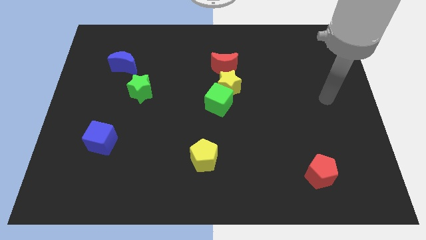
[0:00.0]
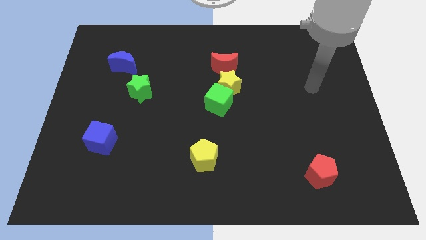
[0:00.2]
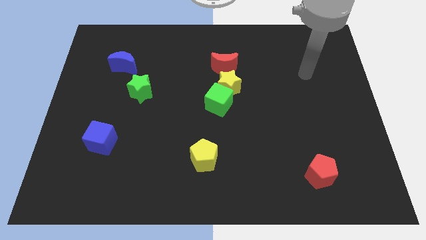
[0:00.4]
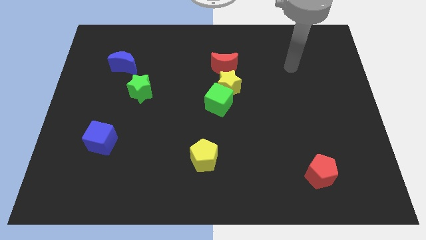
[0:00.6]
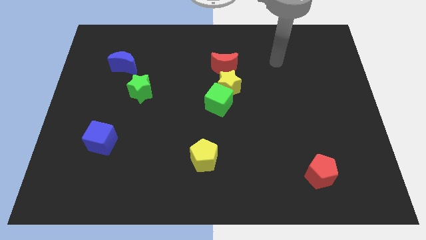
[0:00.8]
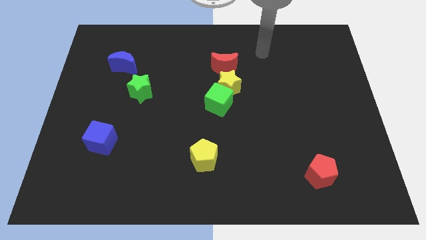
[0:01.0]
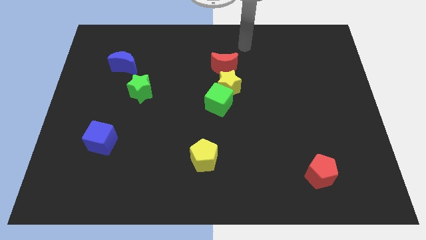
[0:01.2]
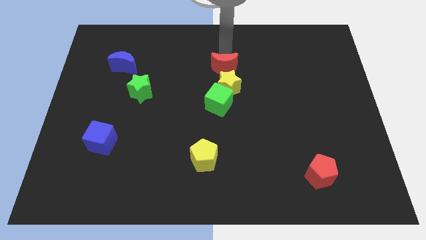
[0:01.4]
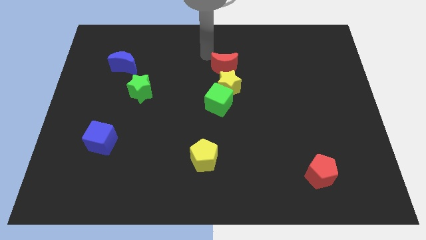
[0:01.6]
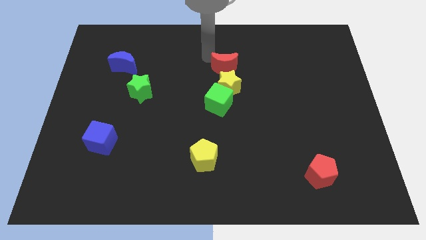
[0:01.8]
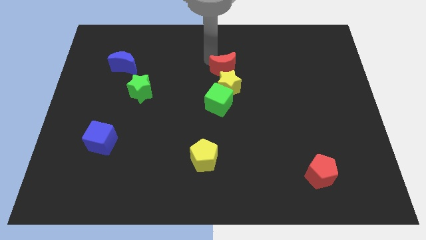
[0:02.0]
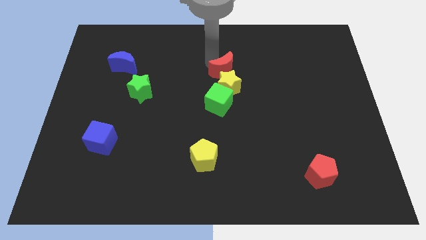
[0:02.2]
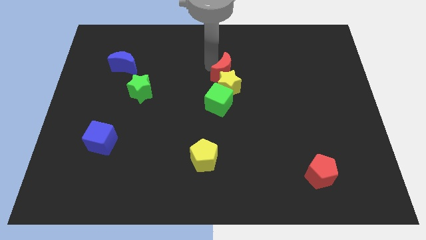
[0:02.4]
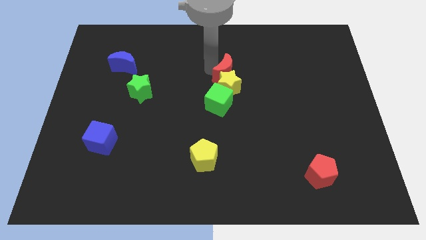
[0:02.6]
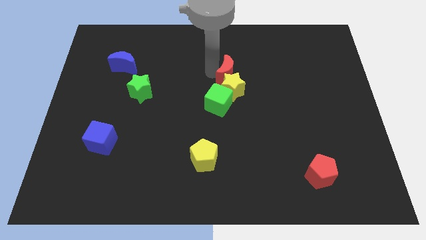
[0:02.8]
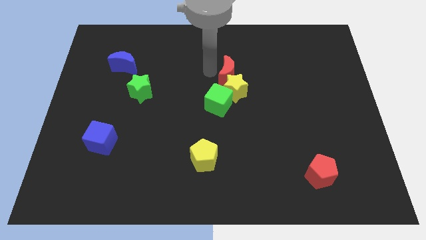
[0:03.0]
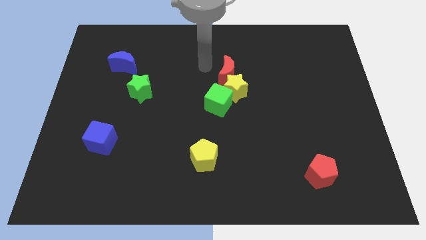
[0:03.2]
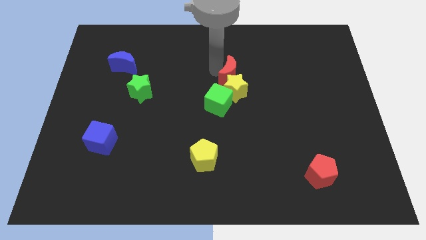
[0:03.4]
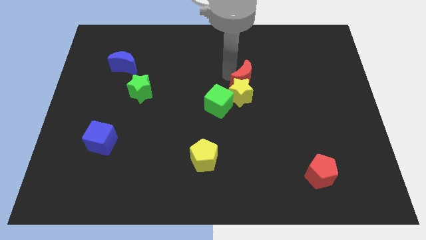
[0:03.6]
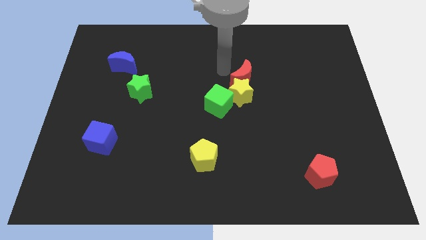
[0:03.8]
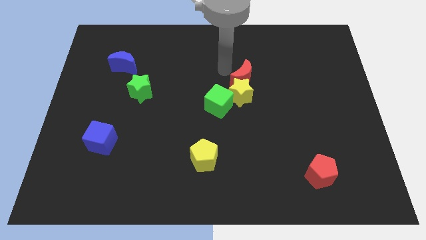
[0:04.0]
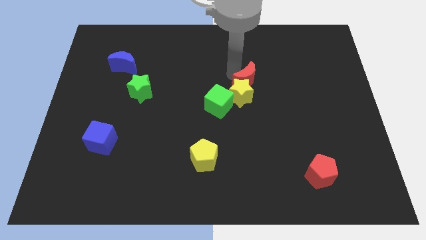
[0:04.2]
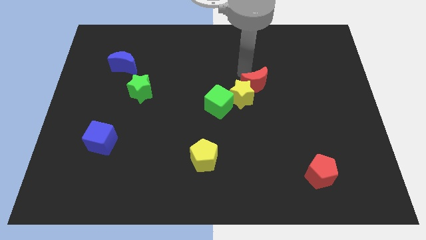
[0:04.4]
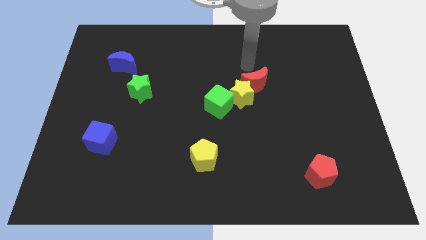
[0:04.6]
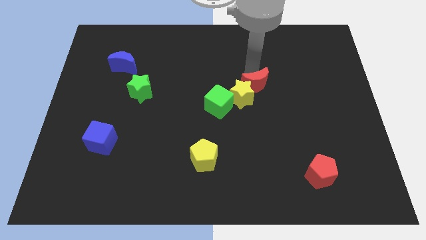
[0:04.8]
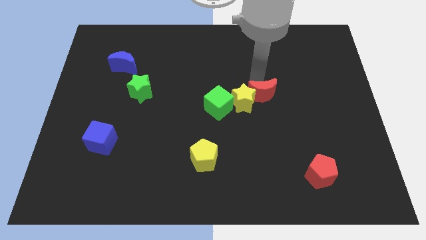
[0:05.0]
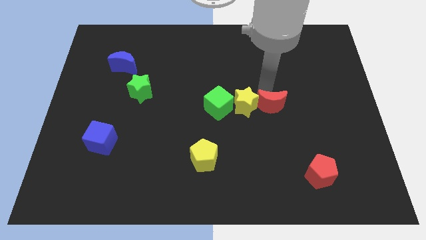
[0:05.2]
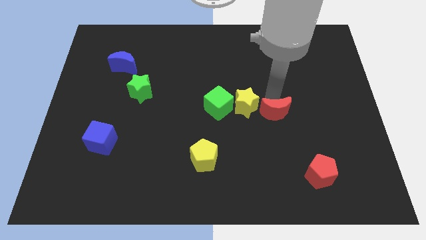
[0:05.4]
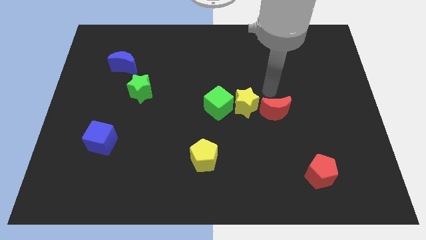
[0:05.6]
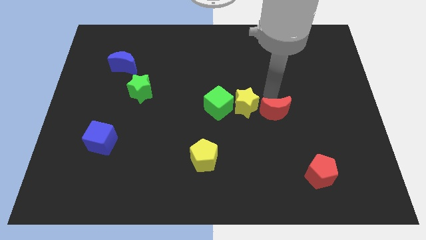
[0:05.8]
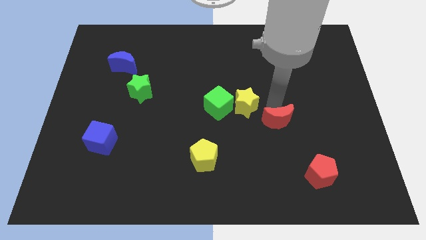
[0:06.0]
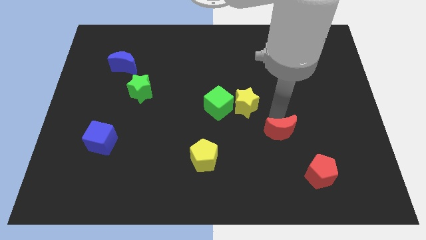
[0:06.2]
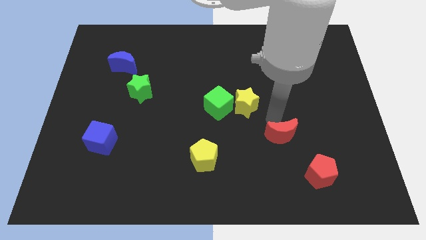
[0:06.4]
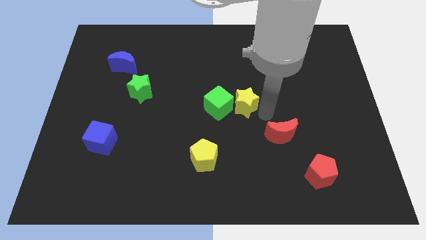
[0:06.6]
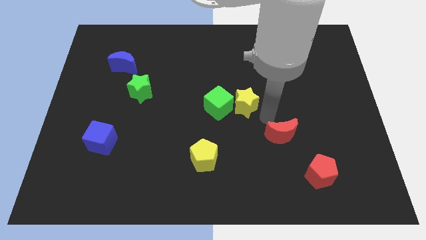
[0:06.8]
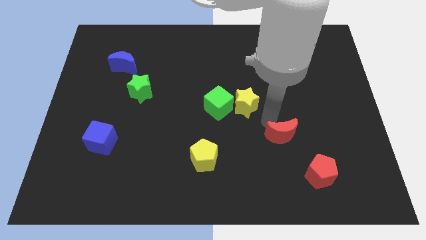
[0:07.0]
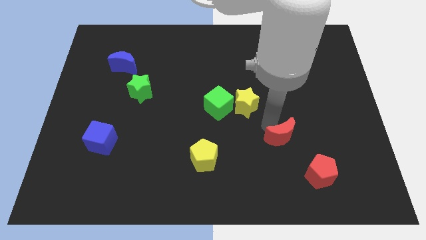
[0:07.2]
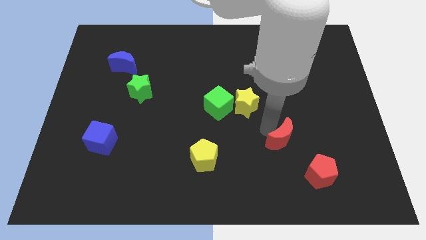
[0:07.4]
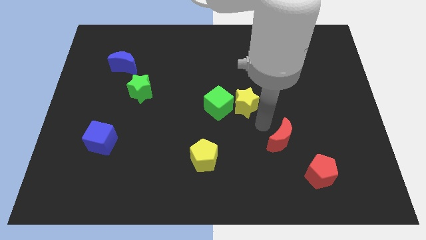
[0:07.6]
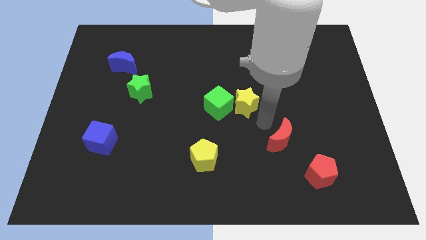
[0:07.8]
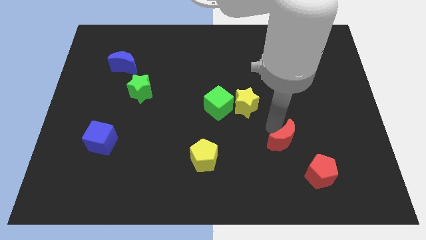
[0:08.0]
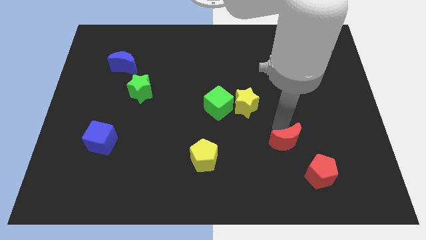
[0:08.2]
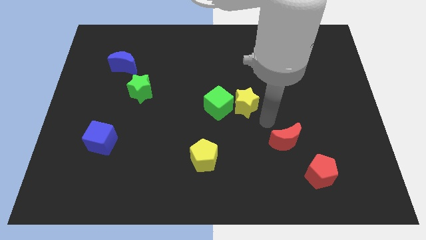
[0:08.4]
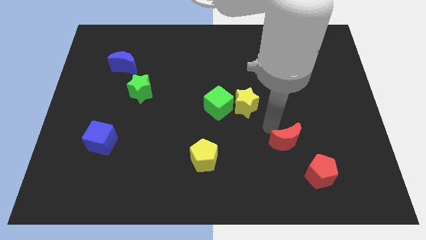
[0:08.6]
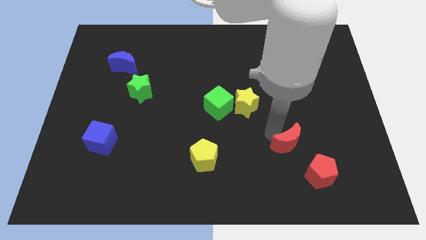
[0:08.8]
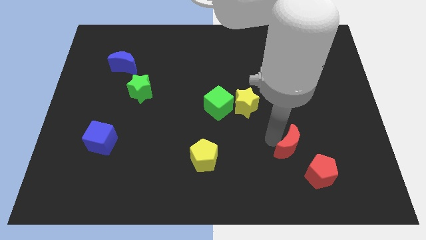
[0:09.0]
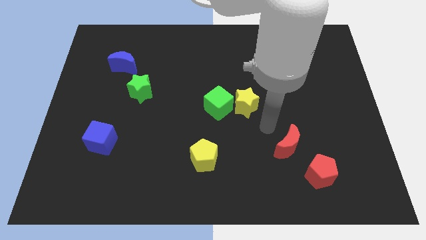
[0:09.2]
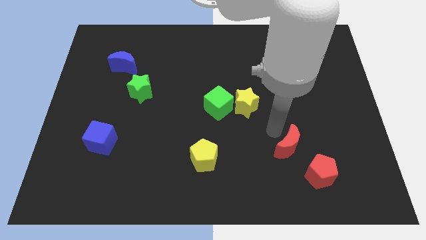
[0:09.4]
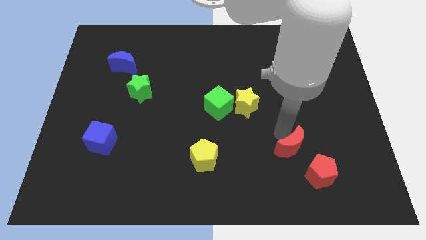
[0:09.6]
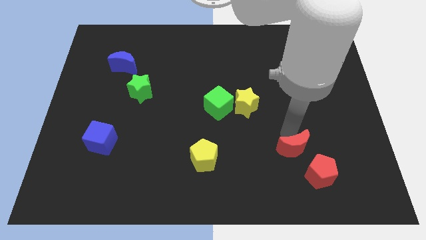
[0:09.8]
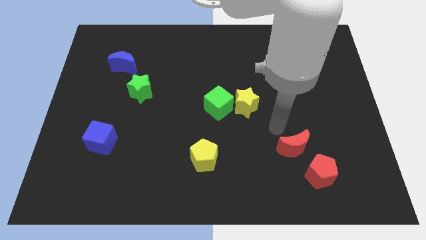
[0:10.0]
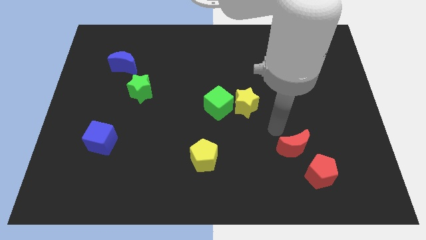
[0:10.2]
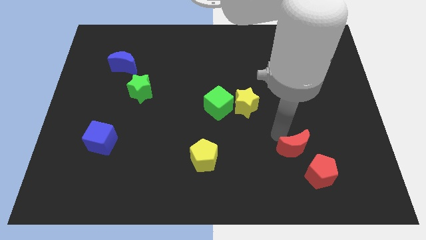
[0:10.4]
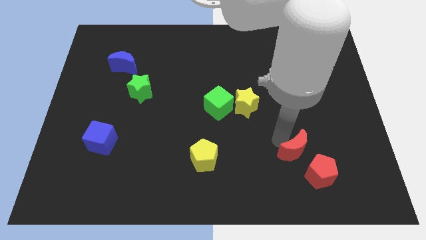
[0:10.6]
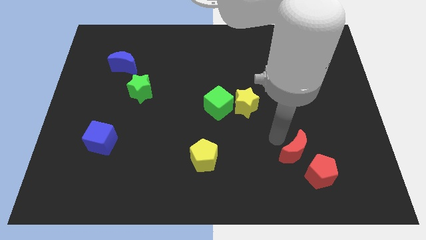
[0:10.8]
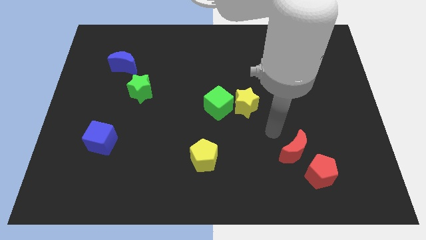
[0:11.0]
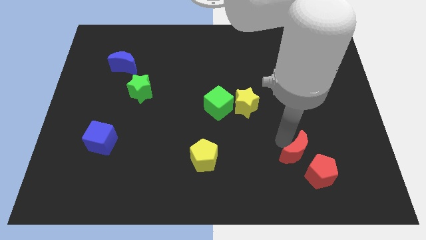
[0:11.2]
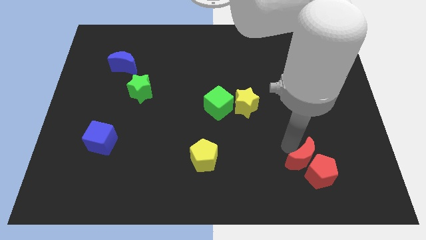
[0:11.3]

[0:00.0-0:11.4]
push the red moon to the red pentagon

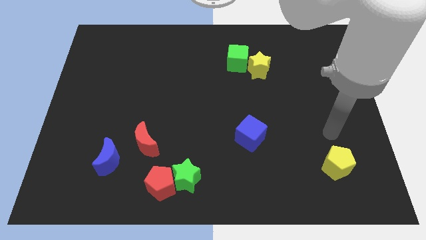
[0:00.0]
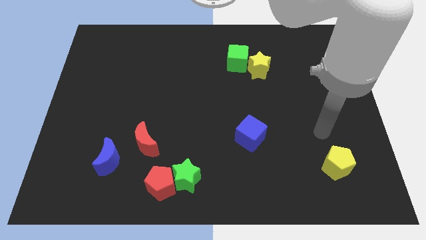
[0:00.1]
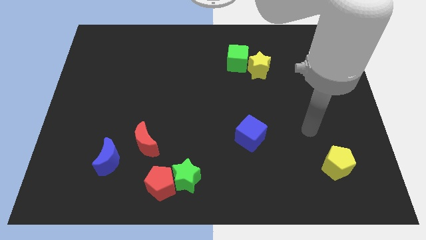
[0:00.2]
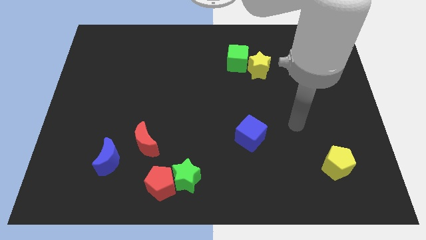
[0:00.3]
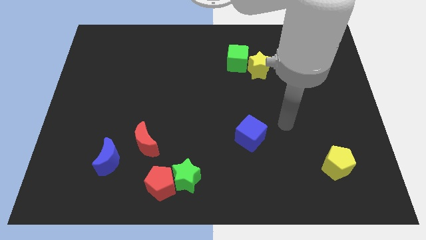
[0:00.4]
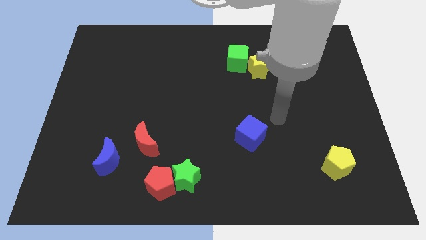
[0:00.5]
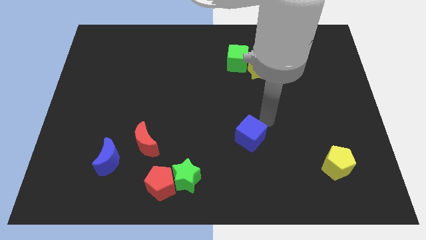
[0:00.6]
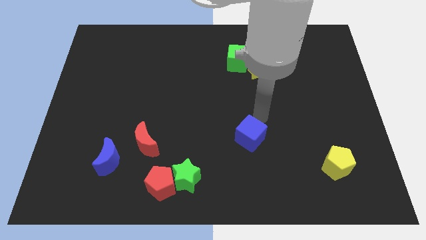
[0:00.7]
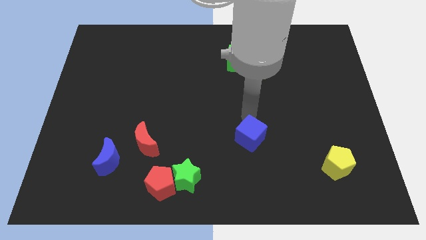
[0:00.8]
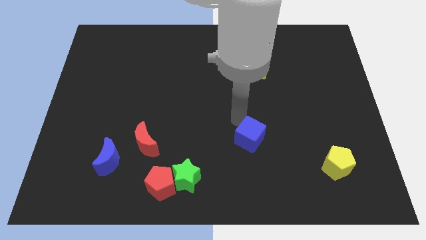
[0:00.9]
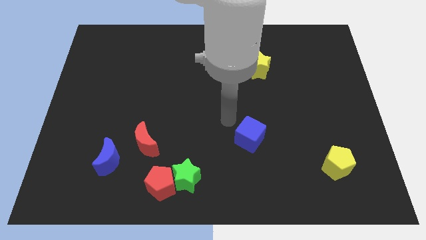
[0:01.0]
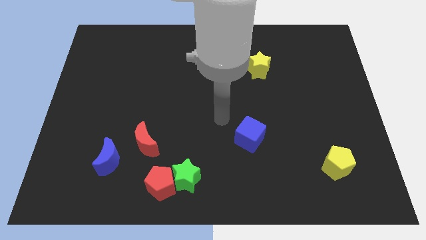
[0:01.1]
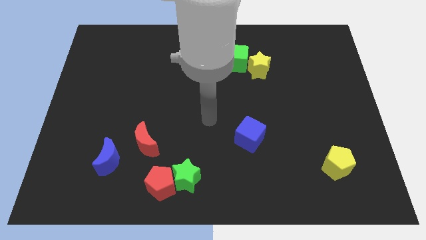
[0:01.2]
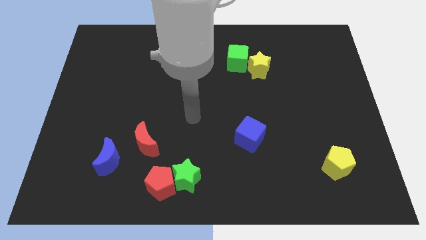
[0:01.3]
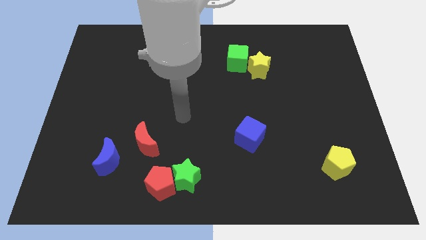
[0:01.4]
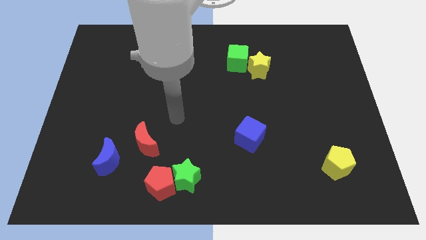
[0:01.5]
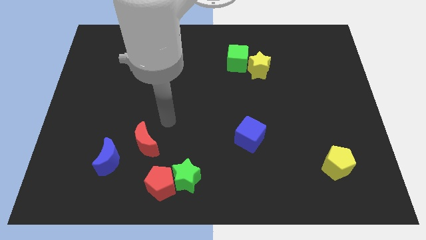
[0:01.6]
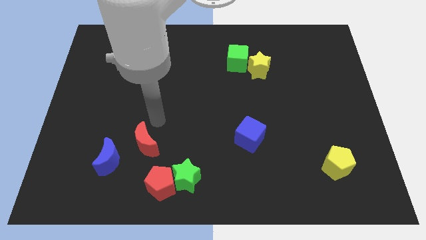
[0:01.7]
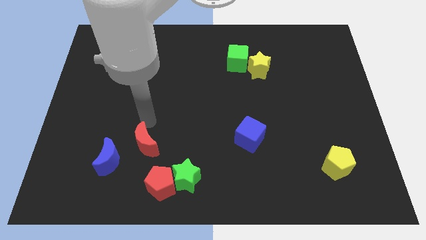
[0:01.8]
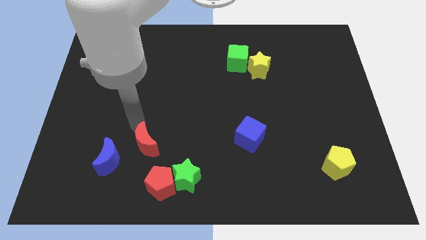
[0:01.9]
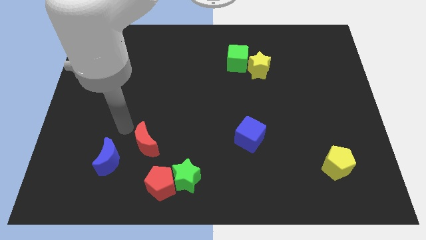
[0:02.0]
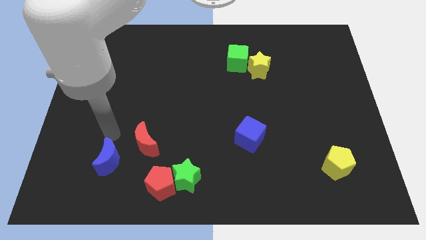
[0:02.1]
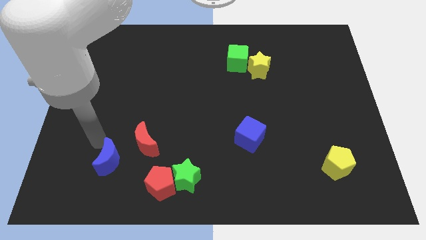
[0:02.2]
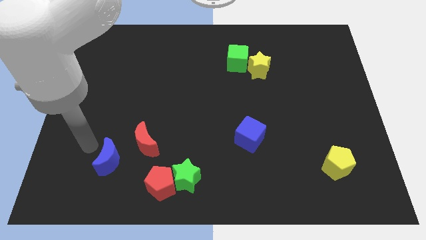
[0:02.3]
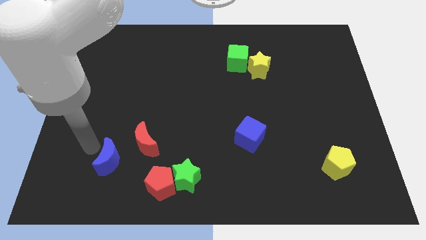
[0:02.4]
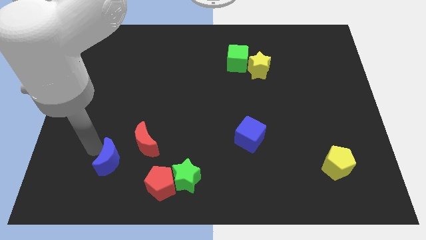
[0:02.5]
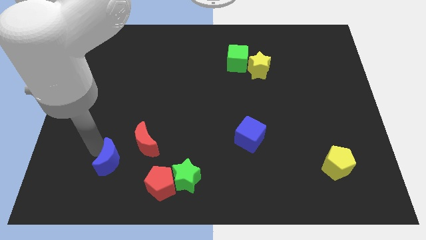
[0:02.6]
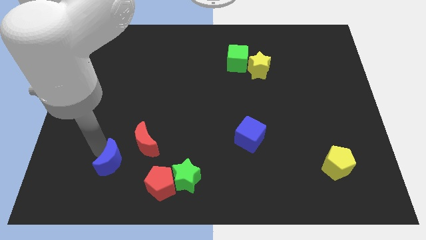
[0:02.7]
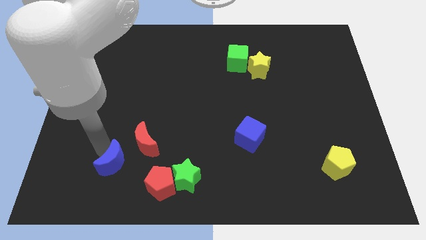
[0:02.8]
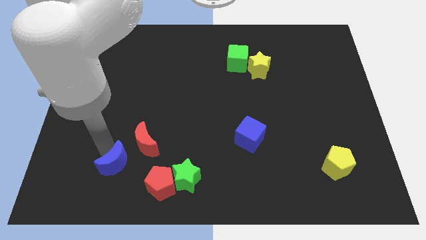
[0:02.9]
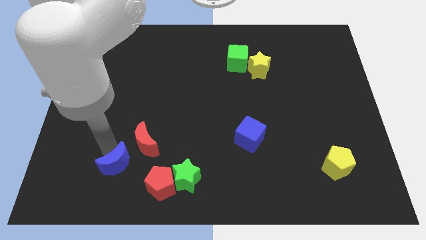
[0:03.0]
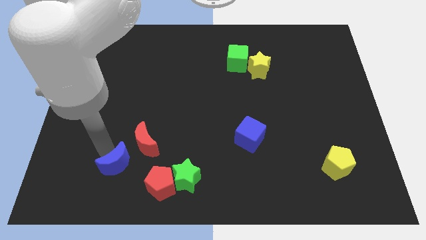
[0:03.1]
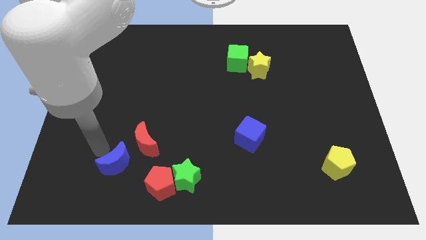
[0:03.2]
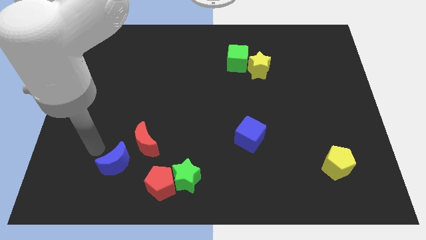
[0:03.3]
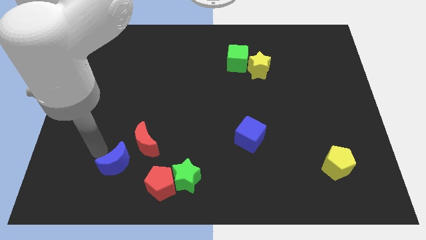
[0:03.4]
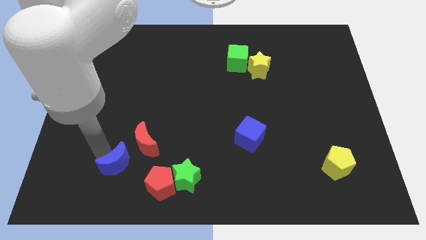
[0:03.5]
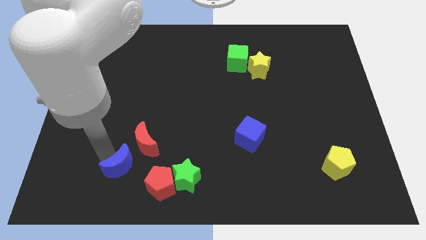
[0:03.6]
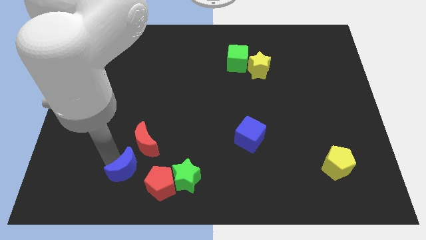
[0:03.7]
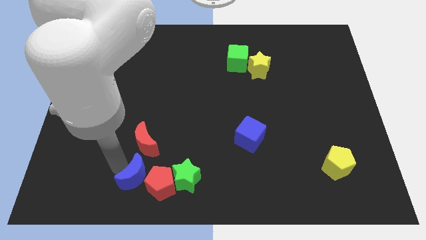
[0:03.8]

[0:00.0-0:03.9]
put the blue moon close to the red pentagon
